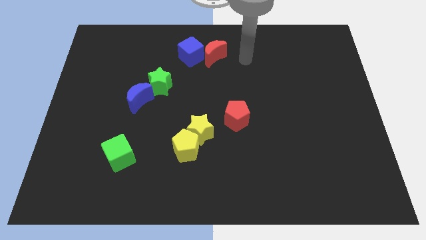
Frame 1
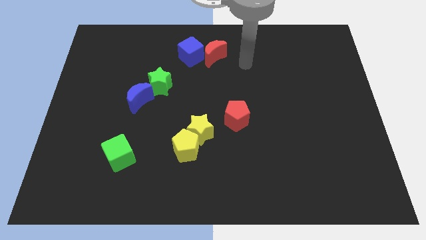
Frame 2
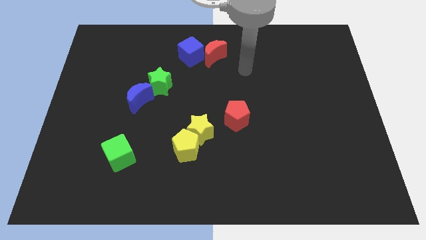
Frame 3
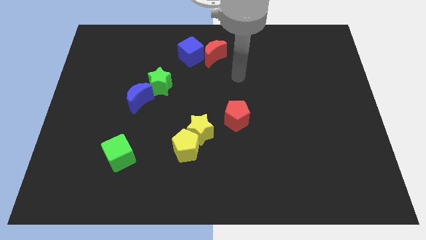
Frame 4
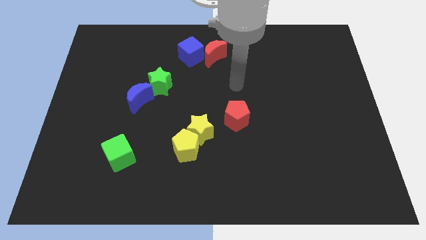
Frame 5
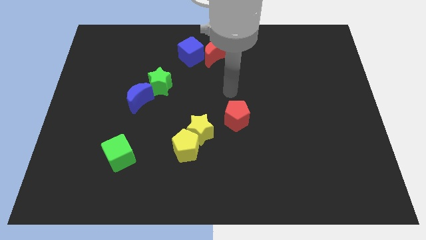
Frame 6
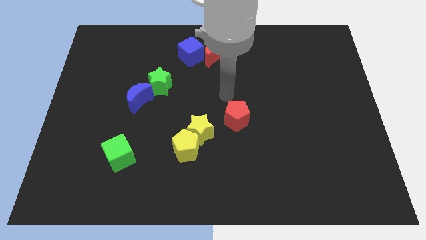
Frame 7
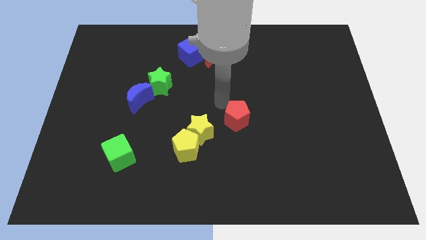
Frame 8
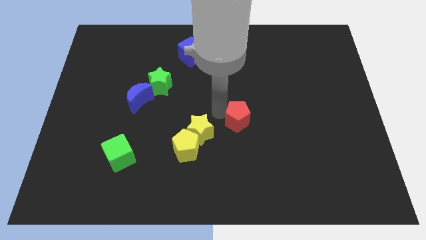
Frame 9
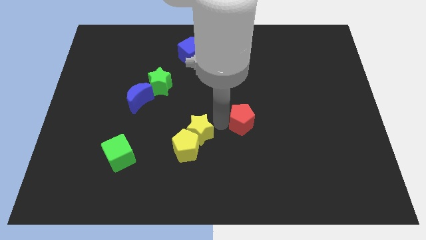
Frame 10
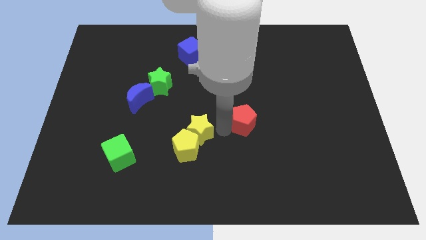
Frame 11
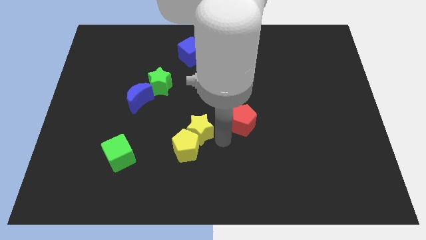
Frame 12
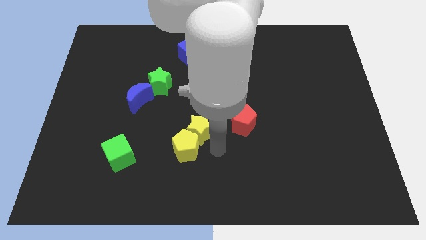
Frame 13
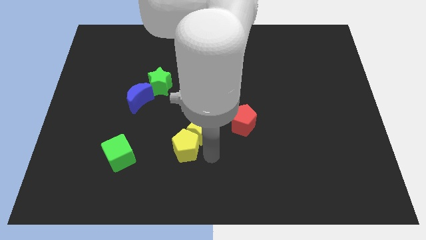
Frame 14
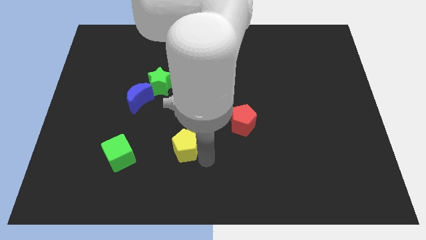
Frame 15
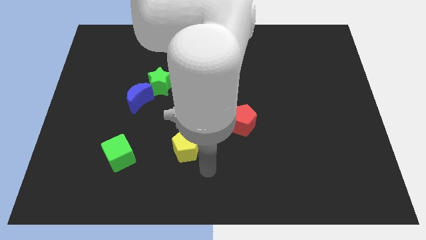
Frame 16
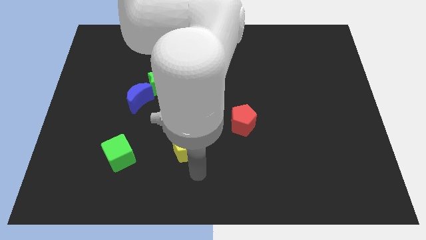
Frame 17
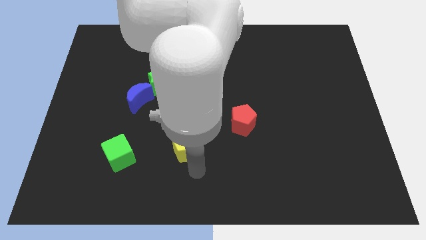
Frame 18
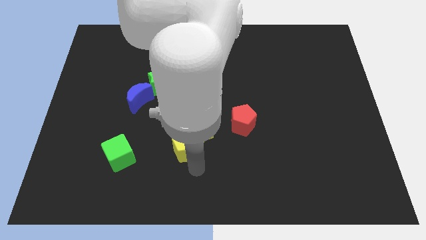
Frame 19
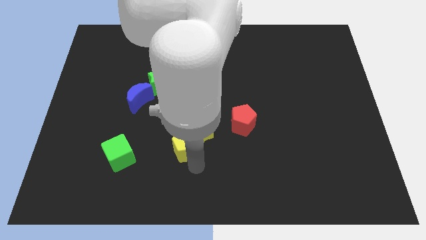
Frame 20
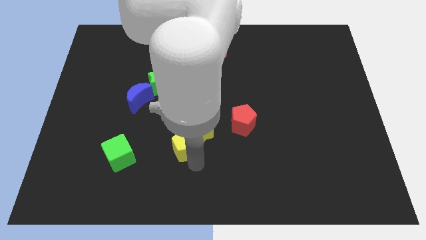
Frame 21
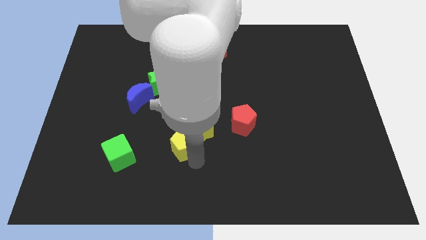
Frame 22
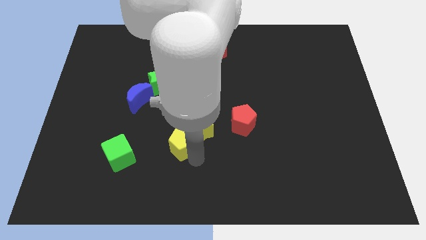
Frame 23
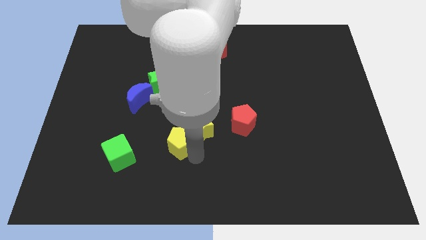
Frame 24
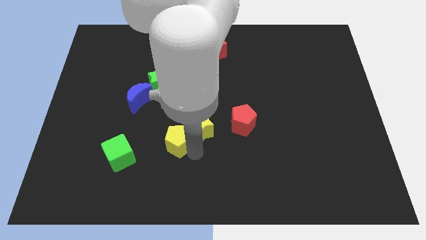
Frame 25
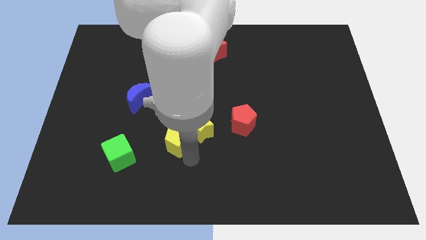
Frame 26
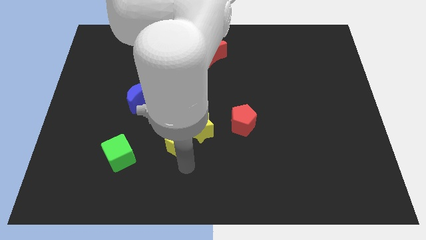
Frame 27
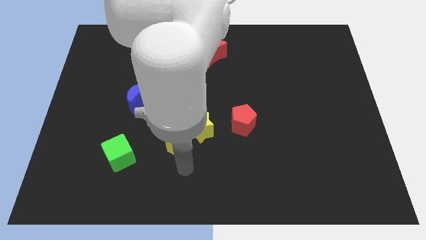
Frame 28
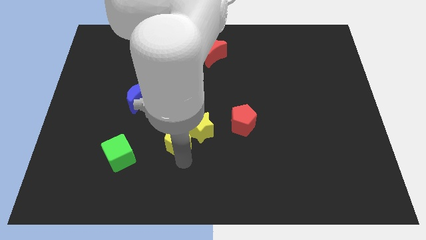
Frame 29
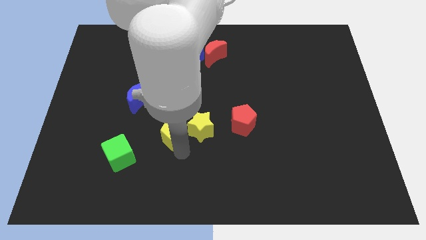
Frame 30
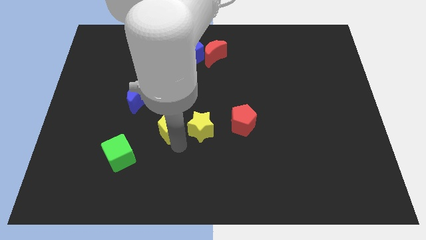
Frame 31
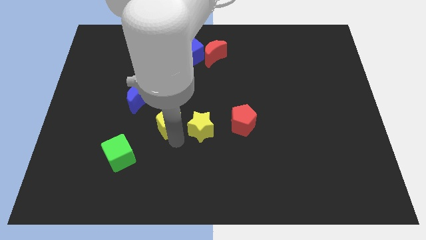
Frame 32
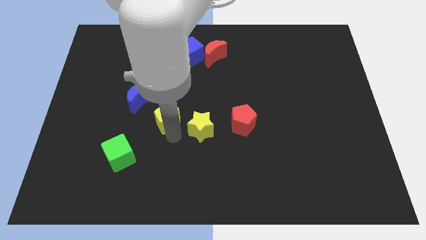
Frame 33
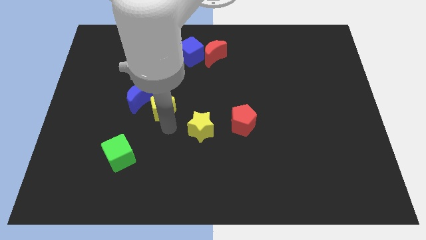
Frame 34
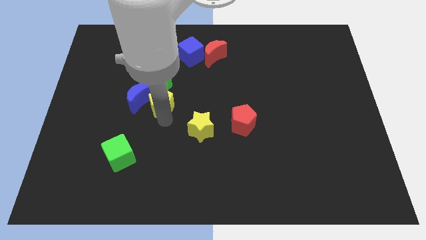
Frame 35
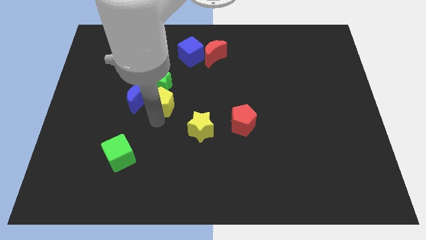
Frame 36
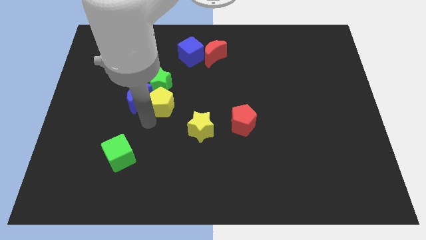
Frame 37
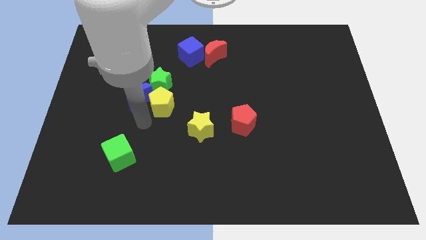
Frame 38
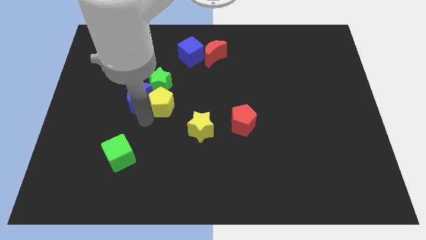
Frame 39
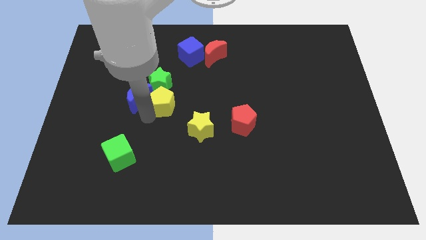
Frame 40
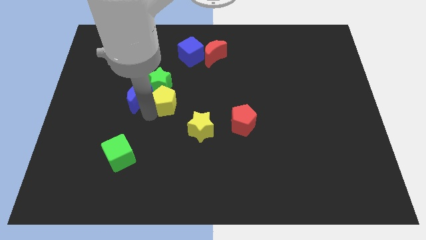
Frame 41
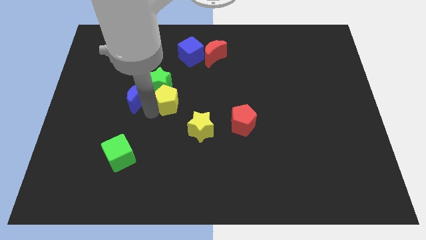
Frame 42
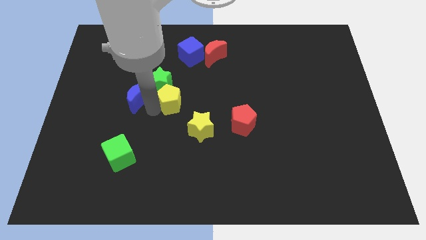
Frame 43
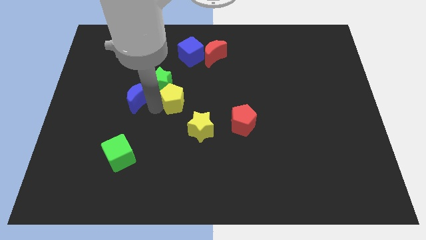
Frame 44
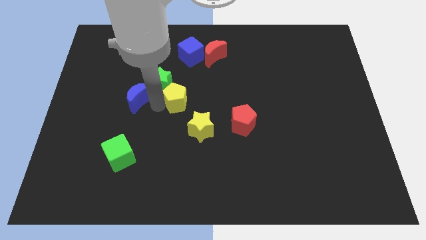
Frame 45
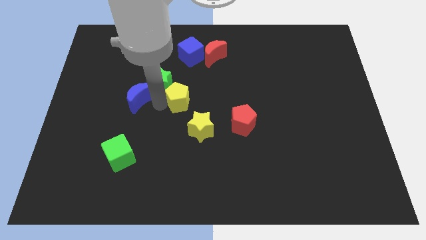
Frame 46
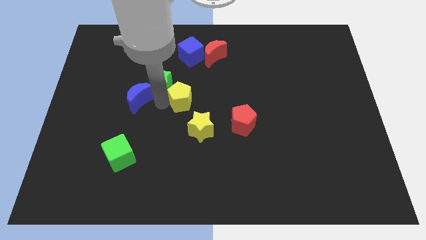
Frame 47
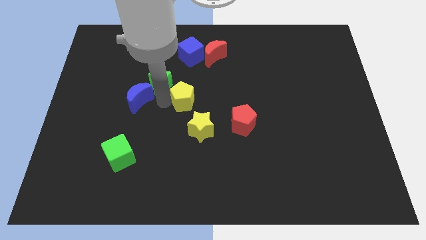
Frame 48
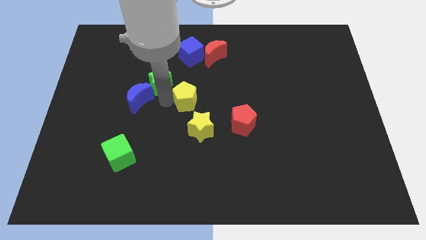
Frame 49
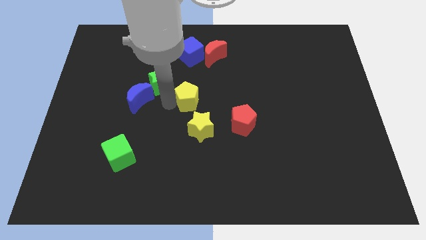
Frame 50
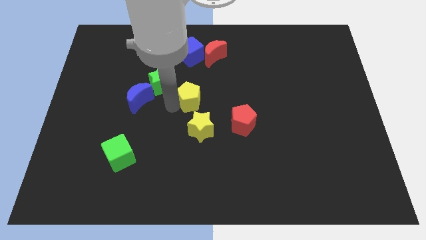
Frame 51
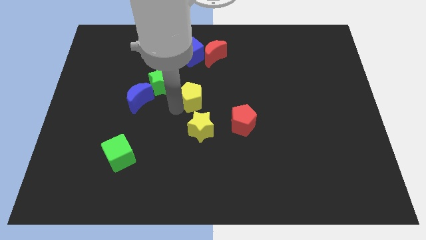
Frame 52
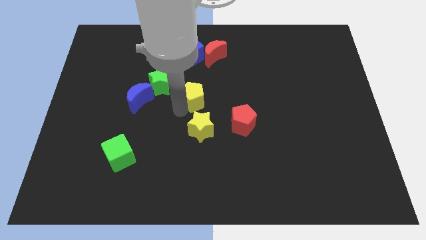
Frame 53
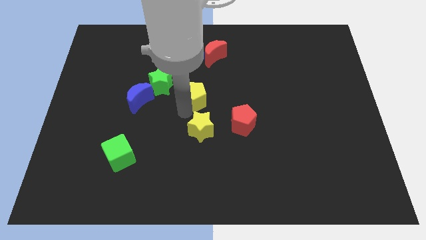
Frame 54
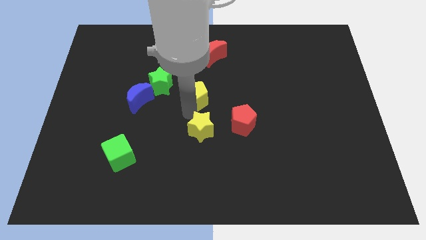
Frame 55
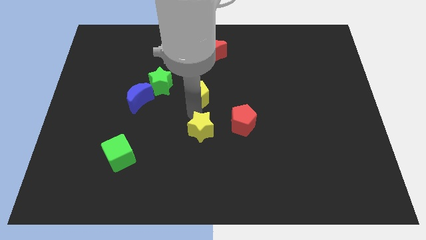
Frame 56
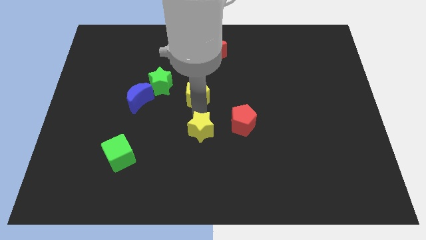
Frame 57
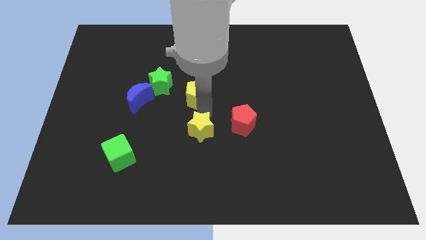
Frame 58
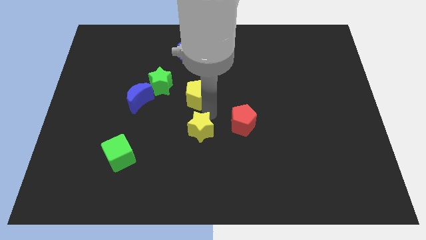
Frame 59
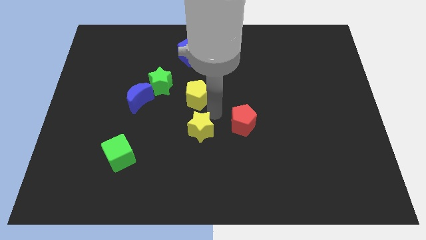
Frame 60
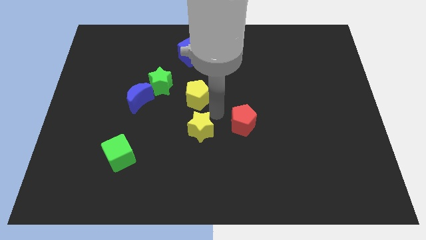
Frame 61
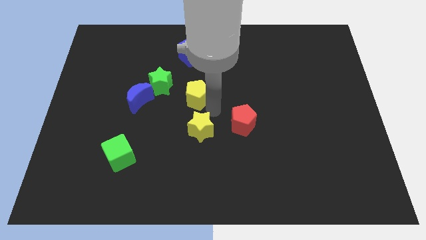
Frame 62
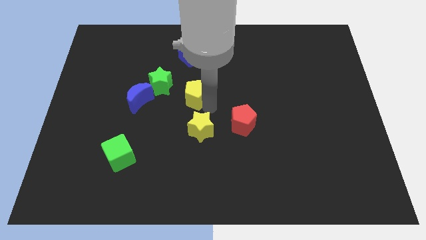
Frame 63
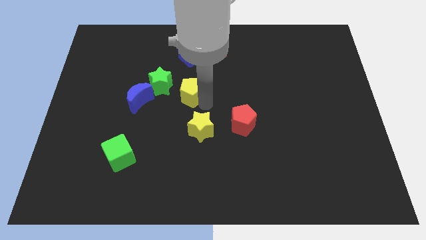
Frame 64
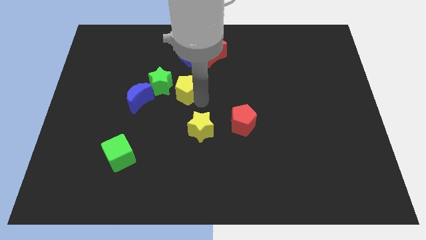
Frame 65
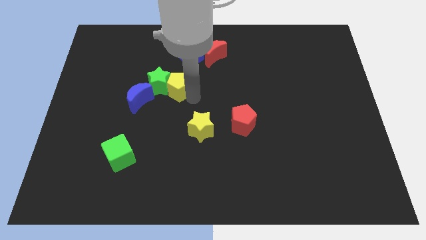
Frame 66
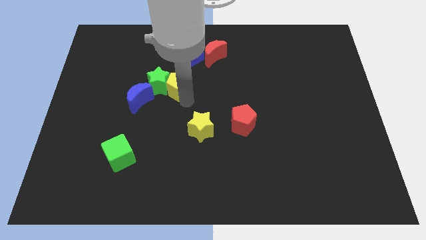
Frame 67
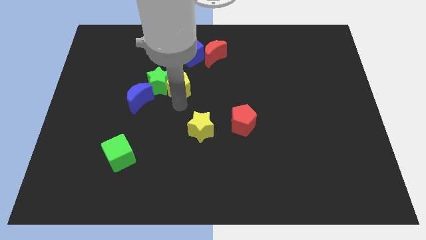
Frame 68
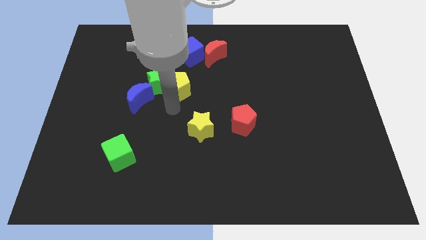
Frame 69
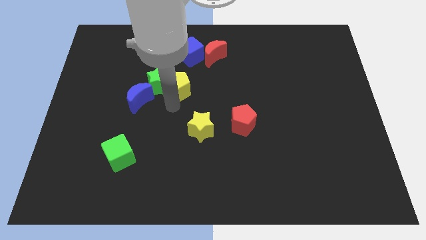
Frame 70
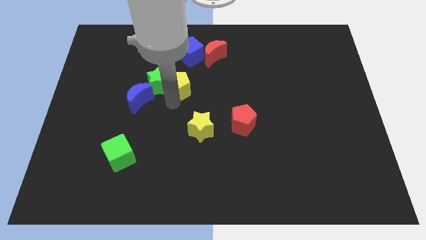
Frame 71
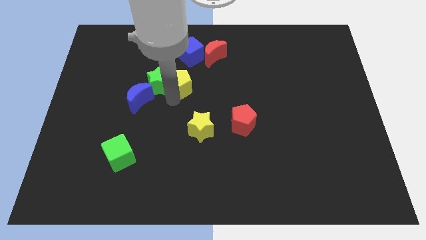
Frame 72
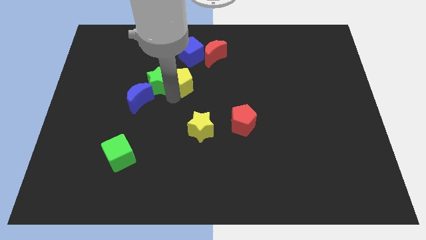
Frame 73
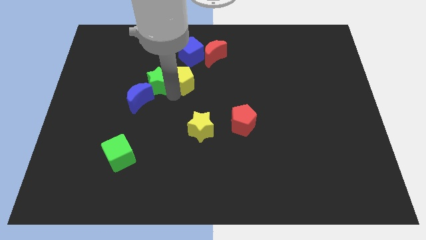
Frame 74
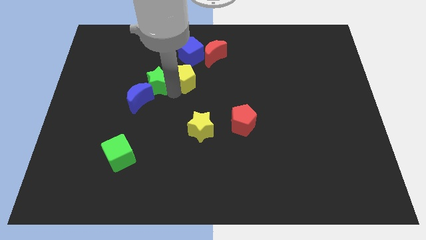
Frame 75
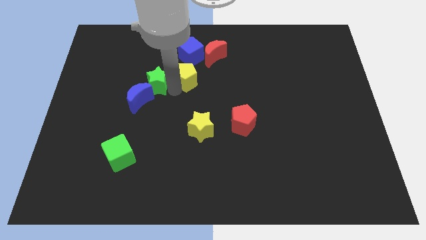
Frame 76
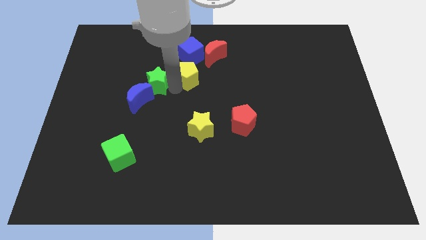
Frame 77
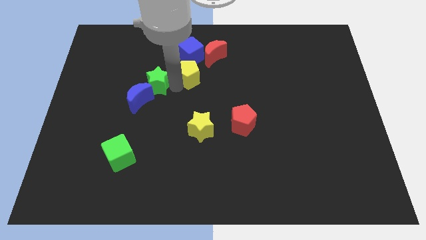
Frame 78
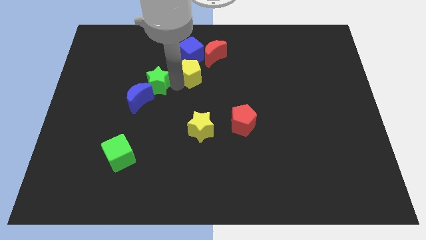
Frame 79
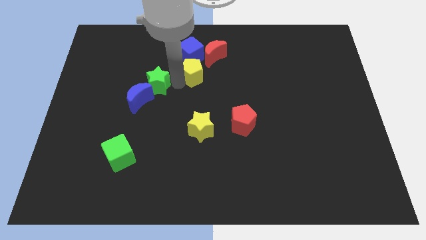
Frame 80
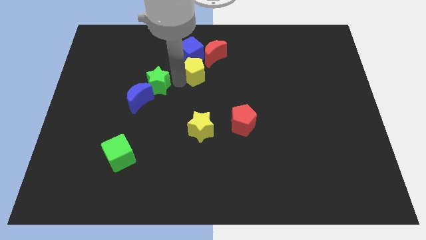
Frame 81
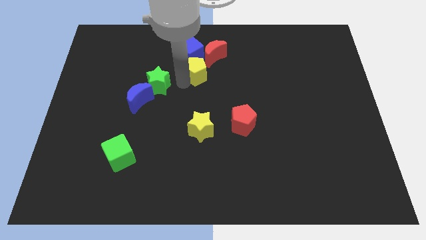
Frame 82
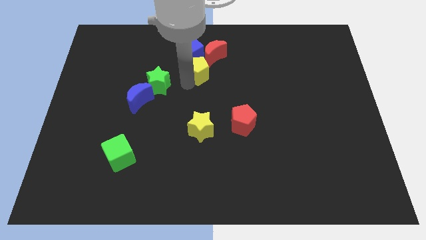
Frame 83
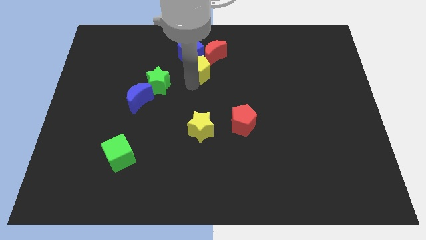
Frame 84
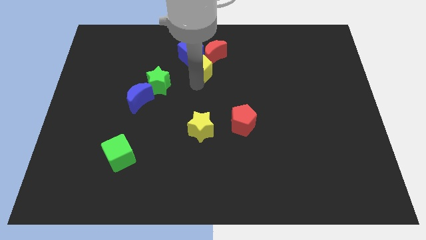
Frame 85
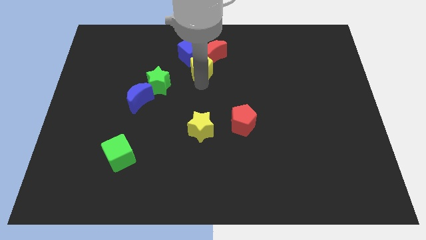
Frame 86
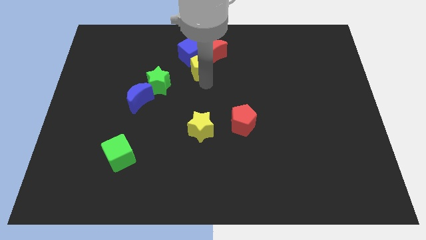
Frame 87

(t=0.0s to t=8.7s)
push the yellow pentagon close to the blue cube
